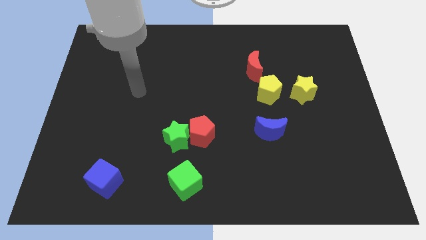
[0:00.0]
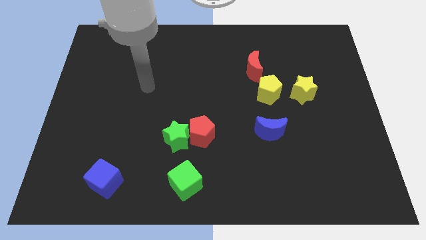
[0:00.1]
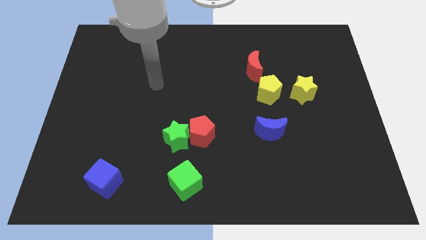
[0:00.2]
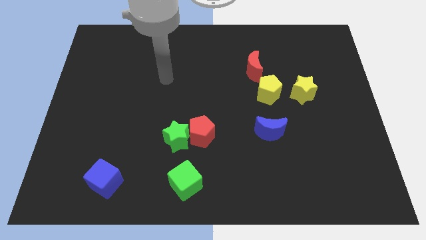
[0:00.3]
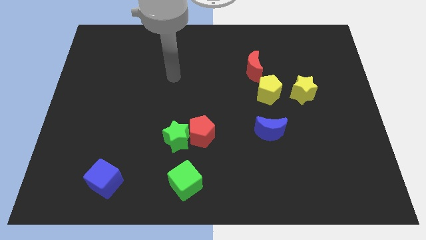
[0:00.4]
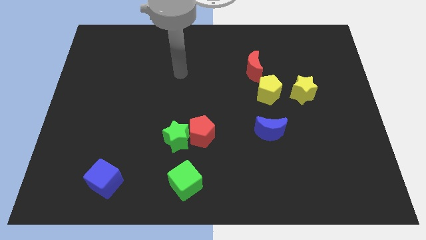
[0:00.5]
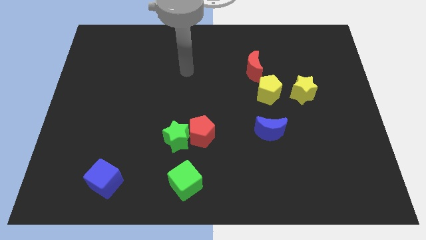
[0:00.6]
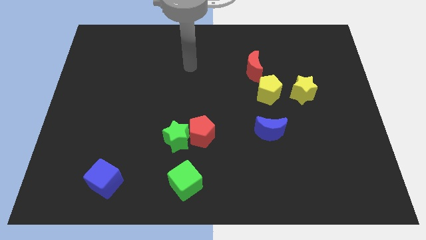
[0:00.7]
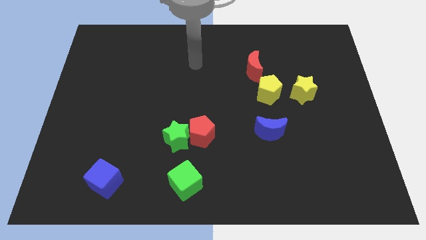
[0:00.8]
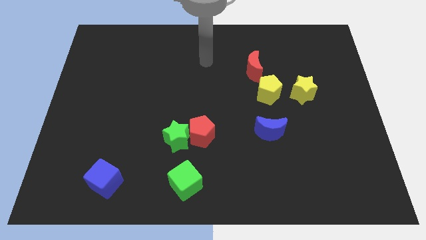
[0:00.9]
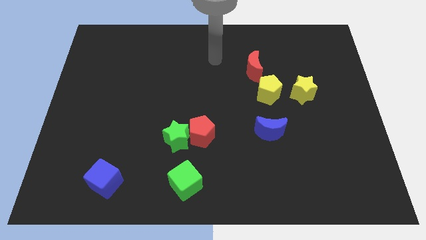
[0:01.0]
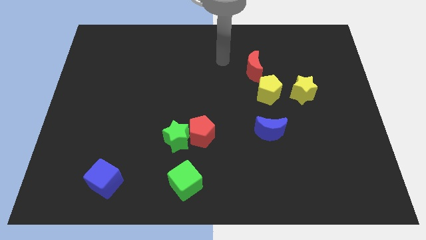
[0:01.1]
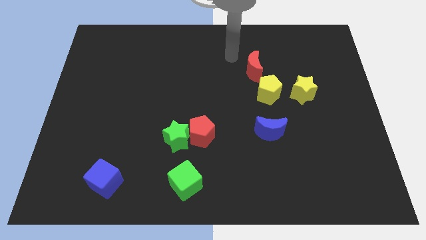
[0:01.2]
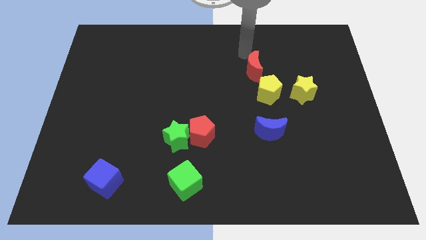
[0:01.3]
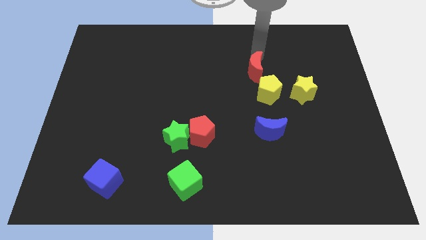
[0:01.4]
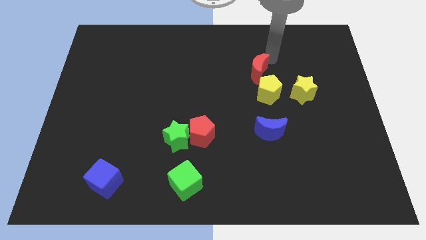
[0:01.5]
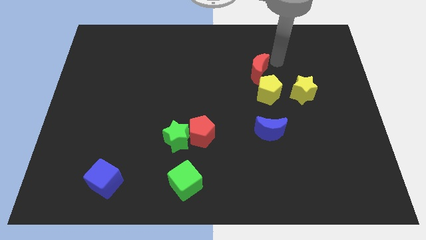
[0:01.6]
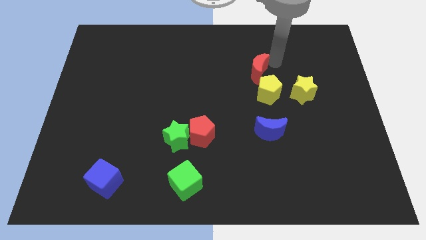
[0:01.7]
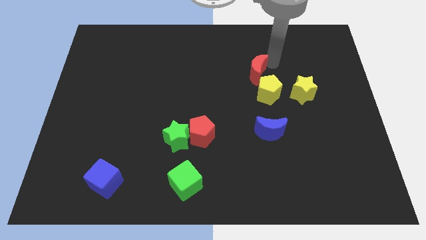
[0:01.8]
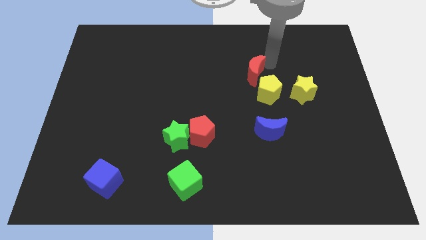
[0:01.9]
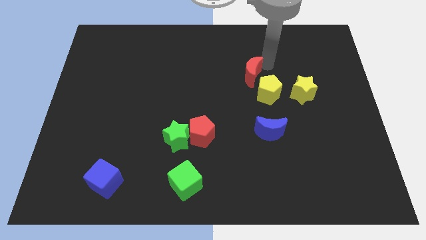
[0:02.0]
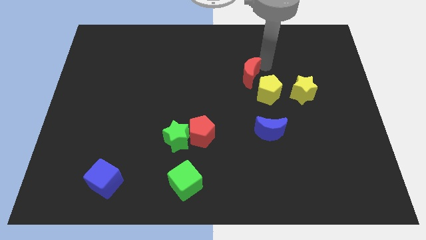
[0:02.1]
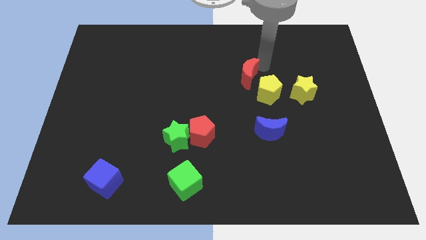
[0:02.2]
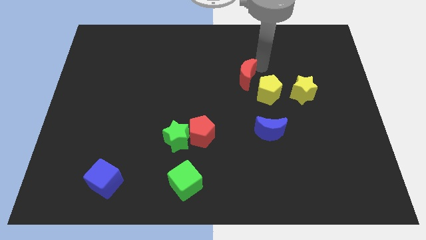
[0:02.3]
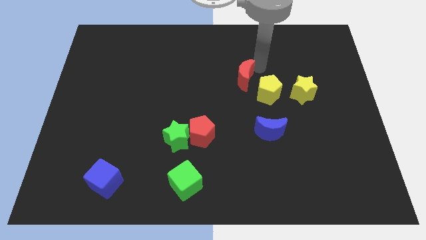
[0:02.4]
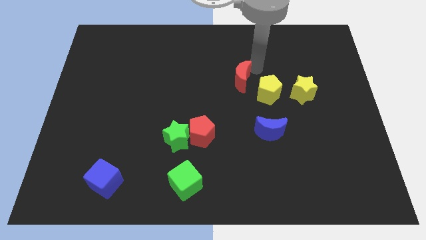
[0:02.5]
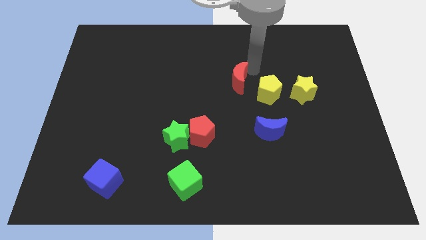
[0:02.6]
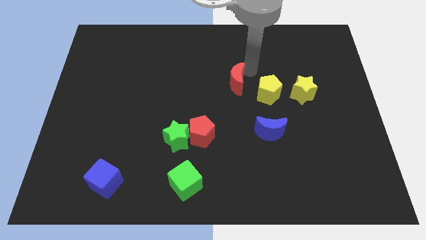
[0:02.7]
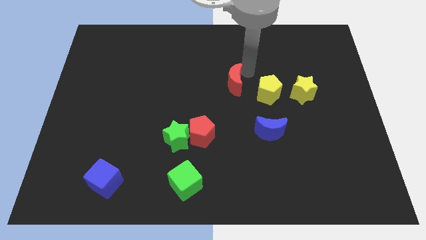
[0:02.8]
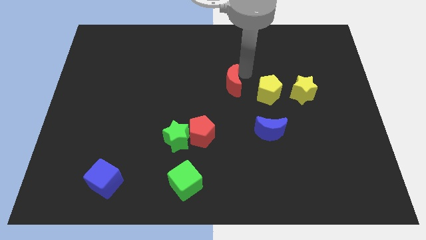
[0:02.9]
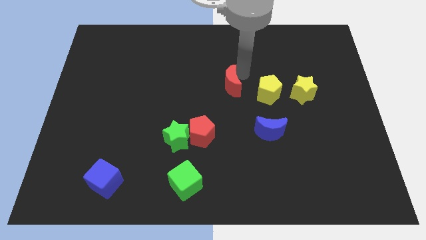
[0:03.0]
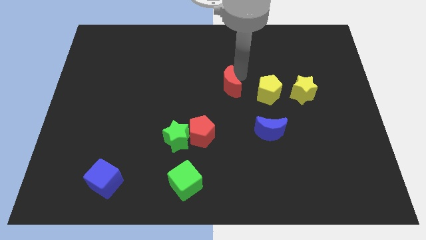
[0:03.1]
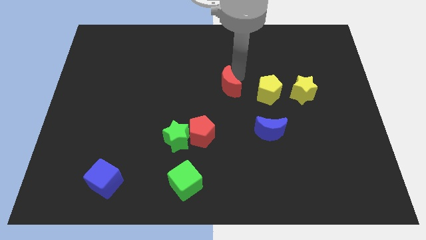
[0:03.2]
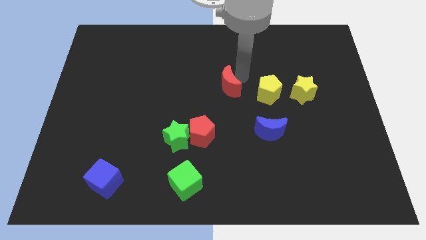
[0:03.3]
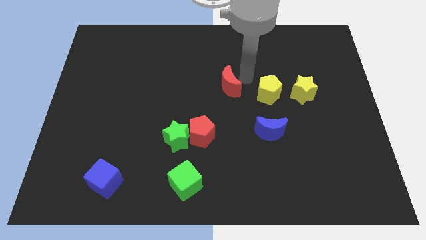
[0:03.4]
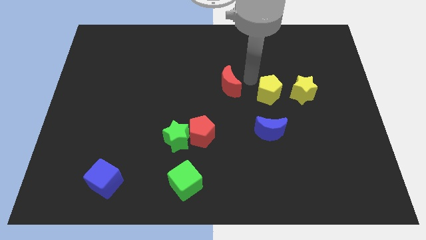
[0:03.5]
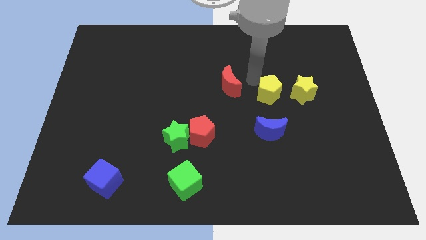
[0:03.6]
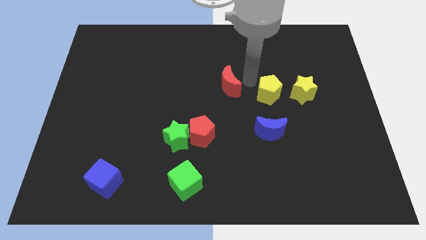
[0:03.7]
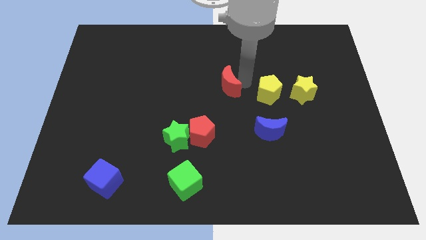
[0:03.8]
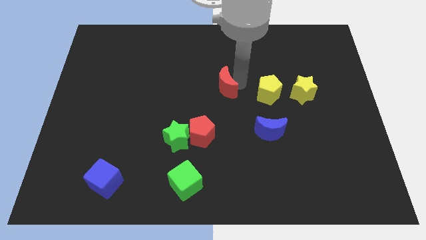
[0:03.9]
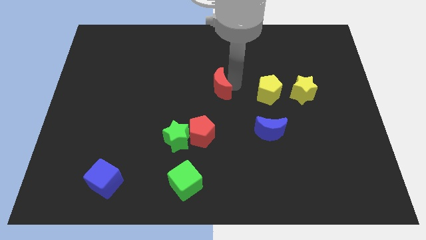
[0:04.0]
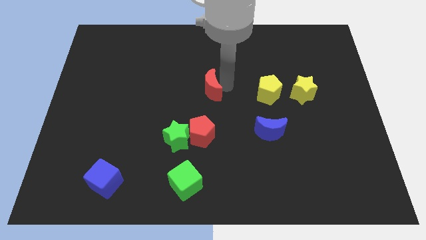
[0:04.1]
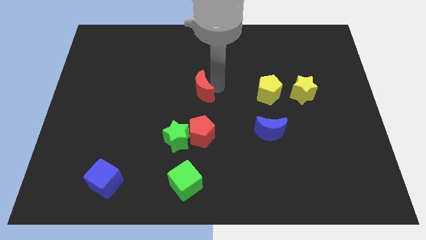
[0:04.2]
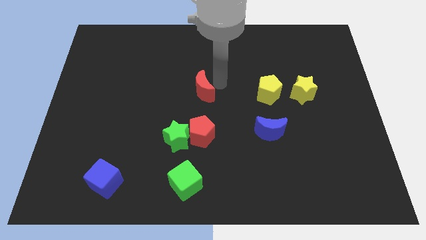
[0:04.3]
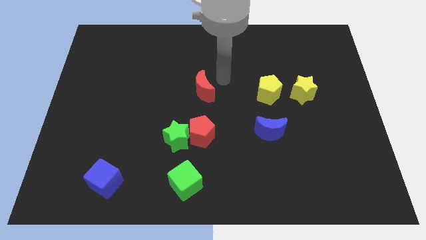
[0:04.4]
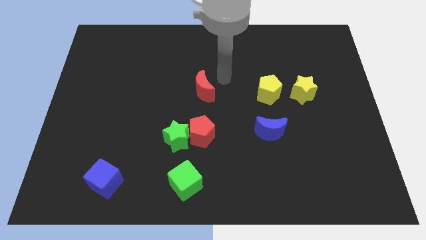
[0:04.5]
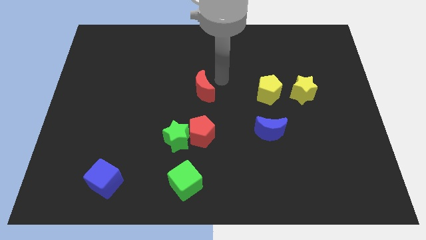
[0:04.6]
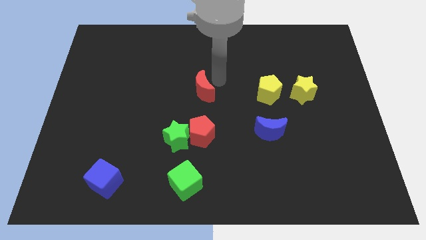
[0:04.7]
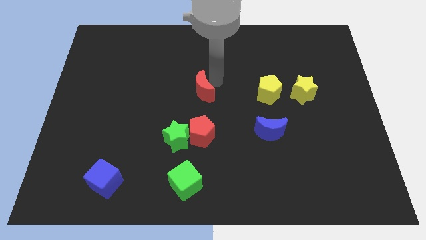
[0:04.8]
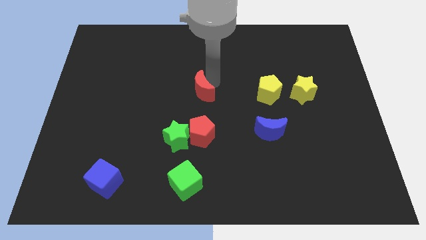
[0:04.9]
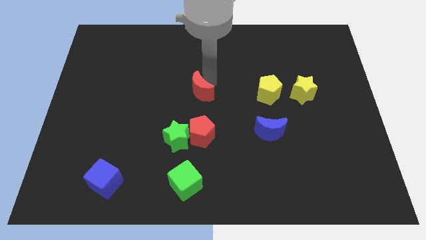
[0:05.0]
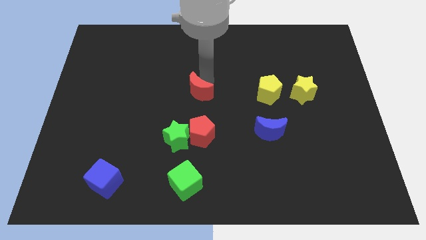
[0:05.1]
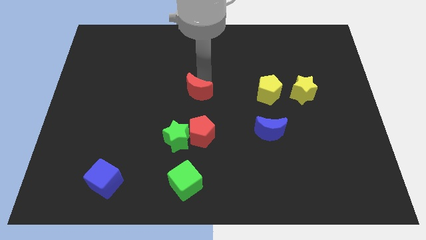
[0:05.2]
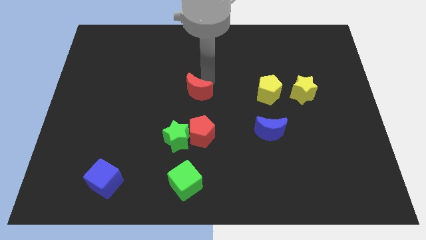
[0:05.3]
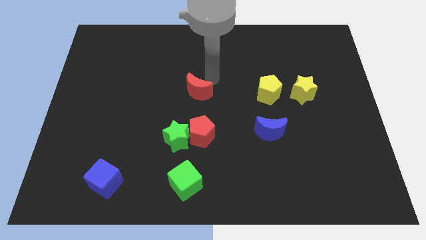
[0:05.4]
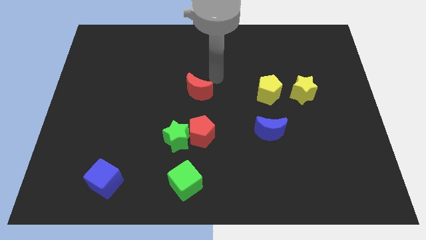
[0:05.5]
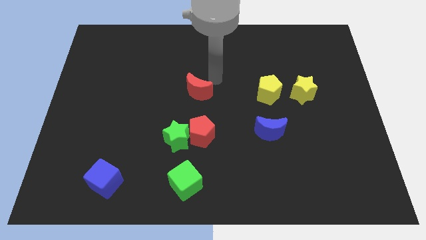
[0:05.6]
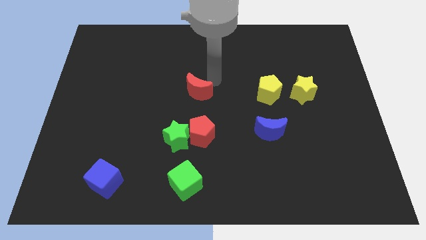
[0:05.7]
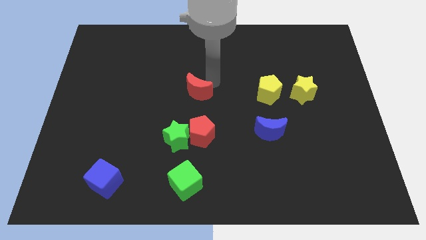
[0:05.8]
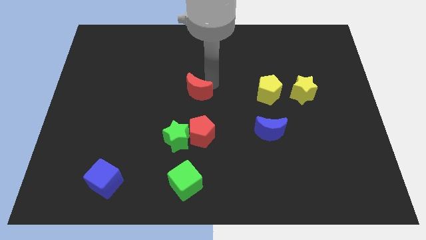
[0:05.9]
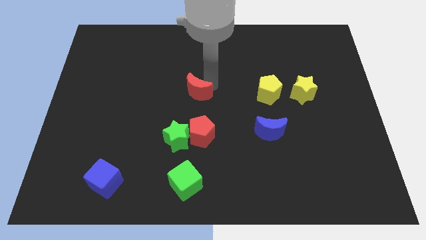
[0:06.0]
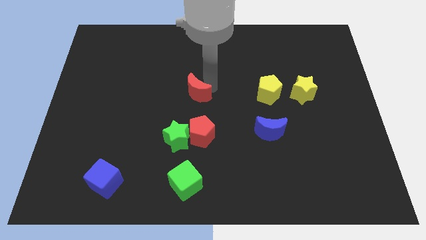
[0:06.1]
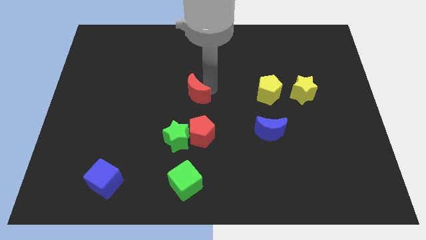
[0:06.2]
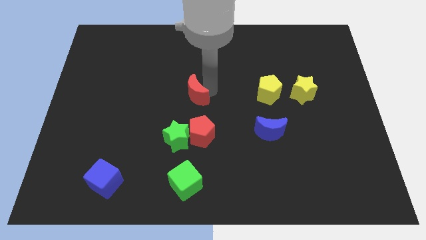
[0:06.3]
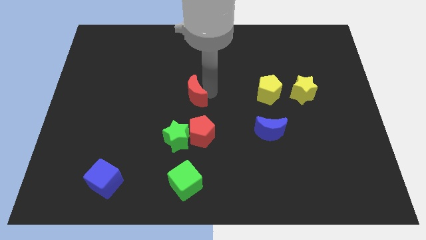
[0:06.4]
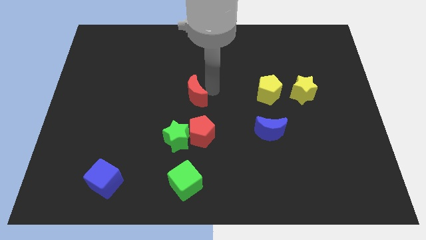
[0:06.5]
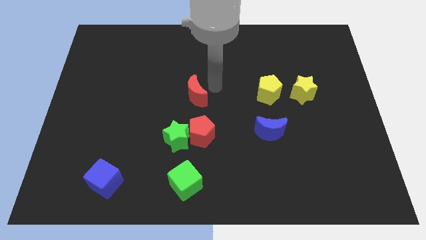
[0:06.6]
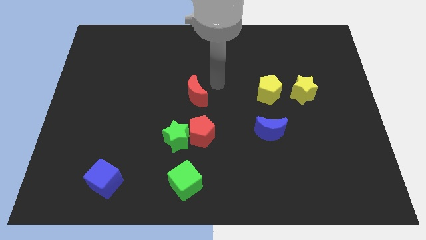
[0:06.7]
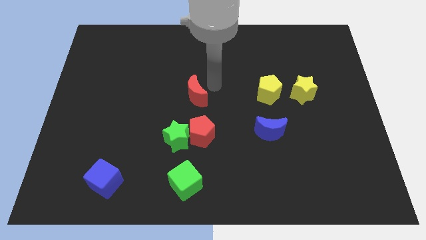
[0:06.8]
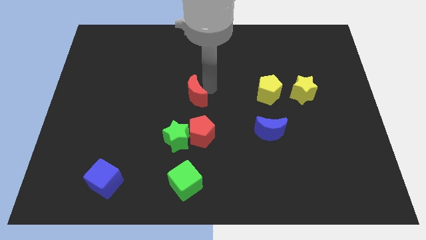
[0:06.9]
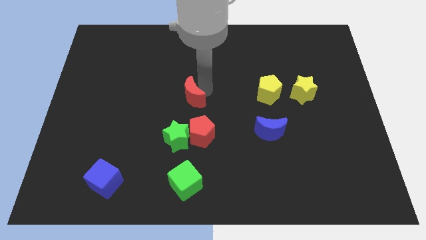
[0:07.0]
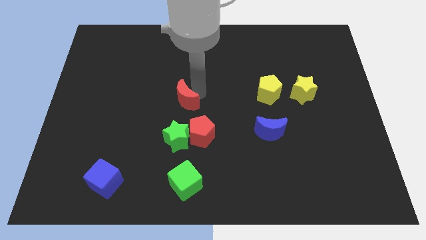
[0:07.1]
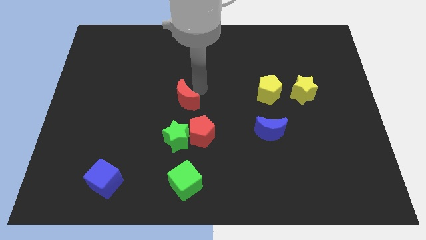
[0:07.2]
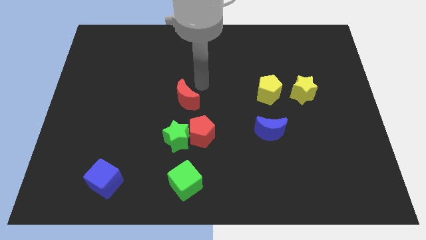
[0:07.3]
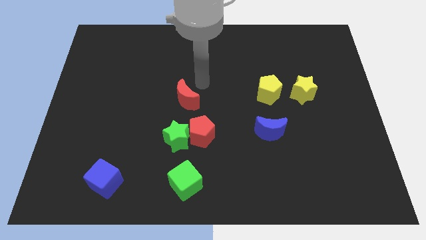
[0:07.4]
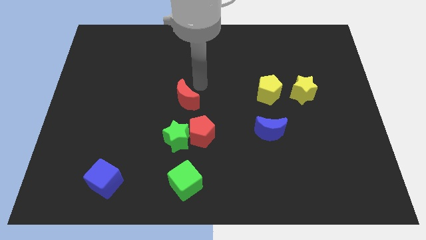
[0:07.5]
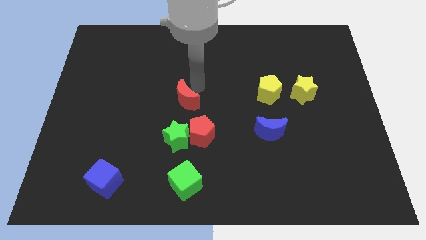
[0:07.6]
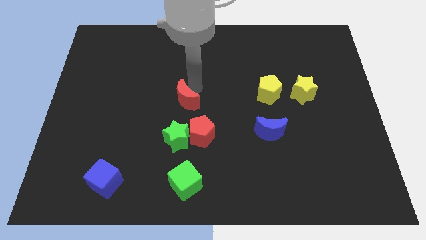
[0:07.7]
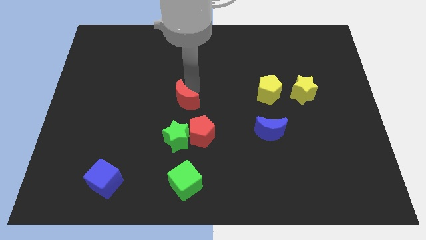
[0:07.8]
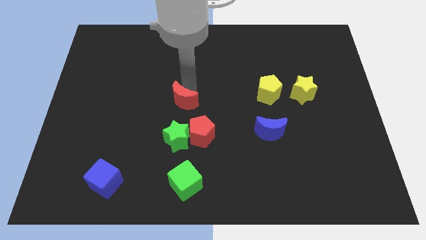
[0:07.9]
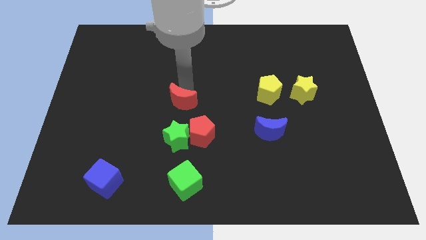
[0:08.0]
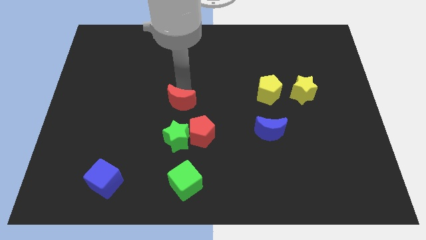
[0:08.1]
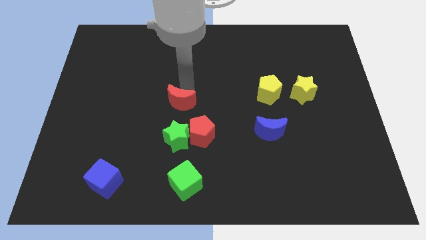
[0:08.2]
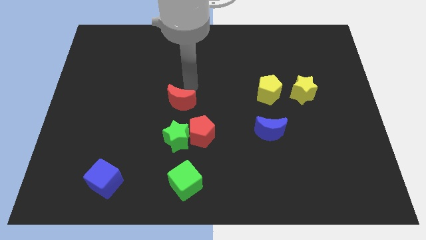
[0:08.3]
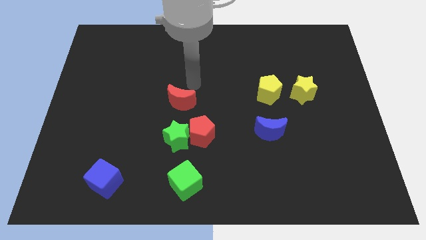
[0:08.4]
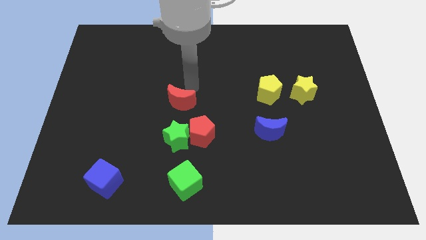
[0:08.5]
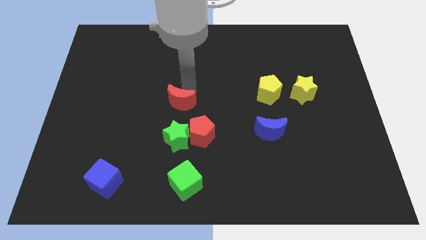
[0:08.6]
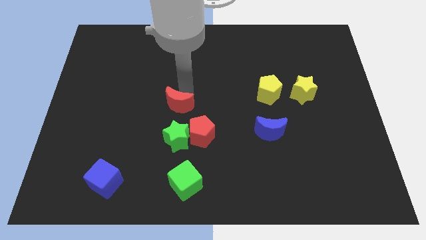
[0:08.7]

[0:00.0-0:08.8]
slide the red moon down and then to the left
